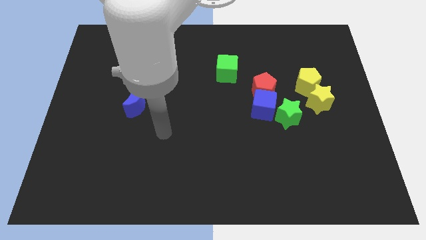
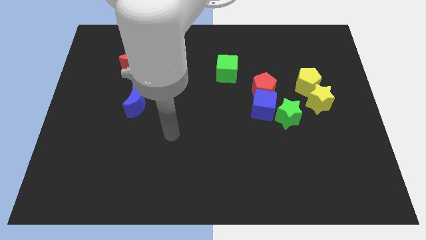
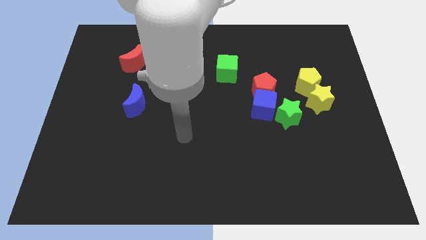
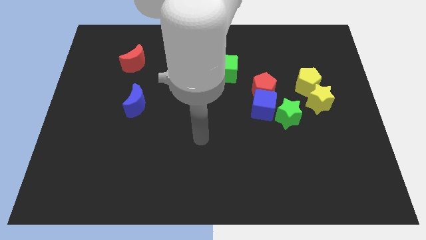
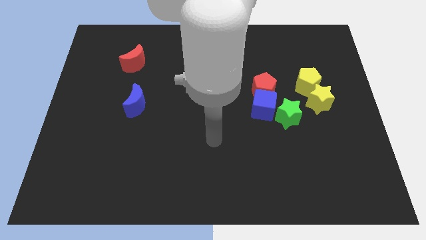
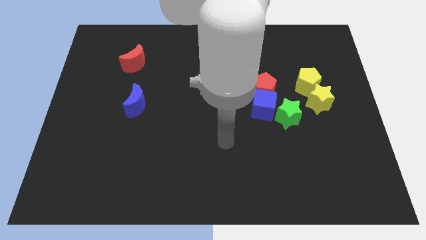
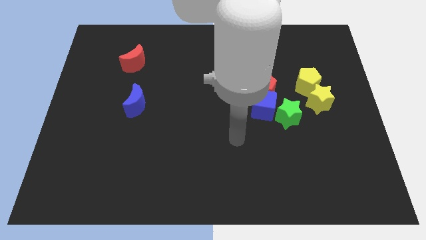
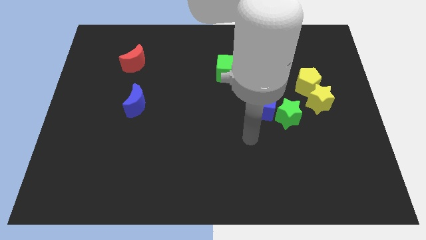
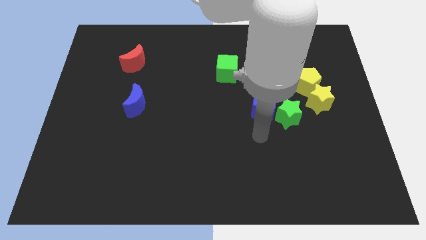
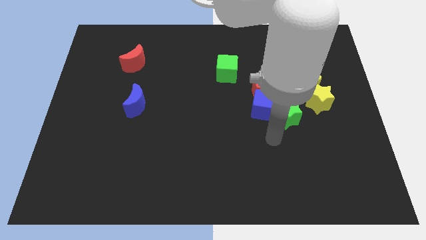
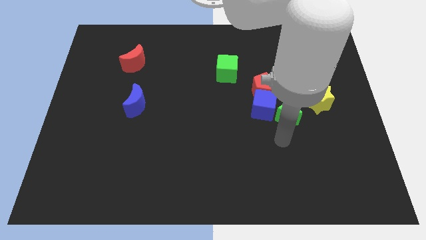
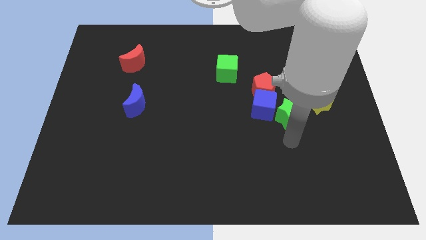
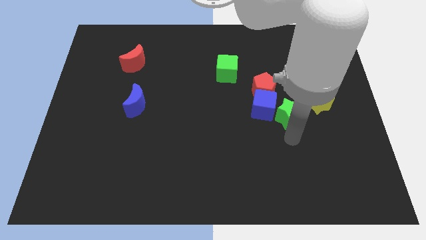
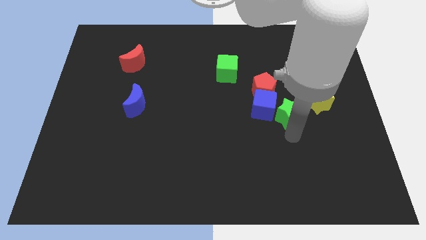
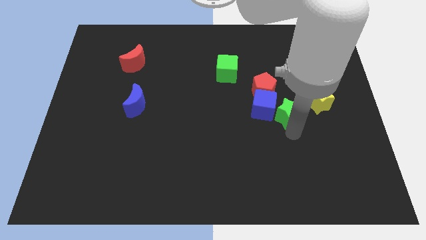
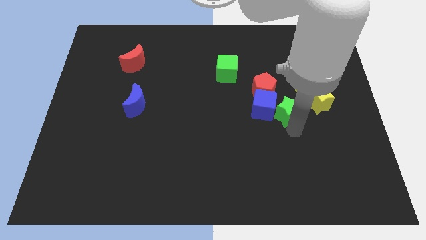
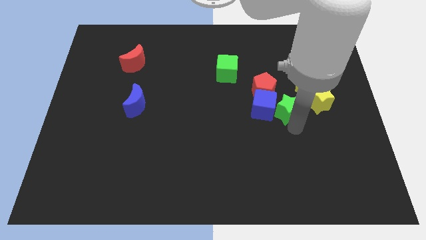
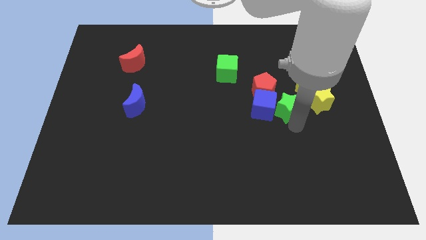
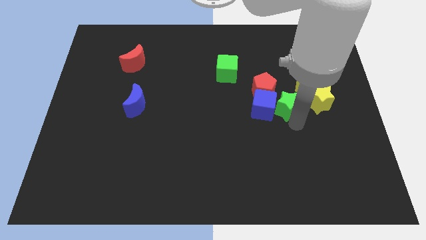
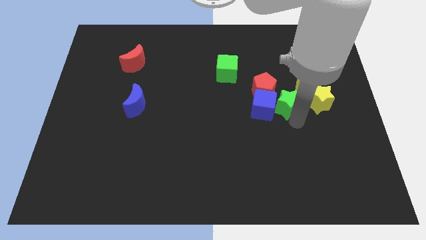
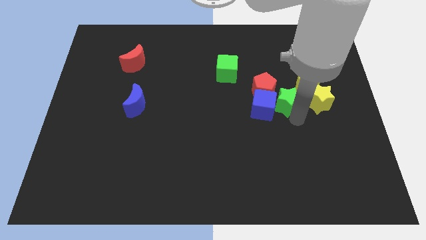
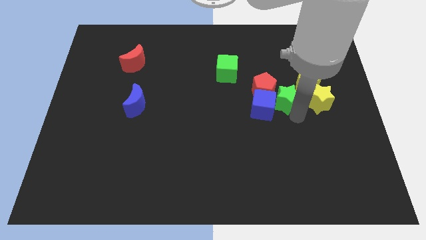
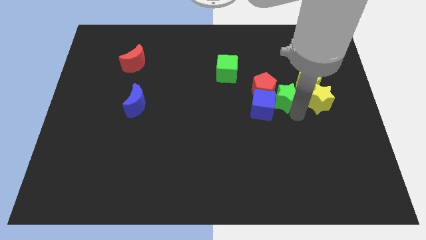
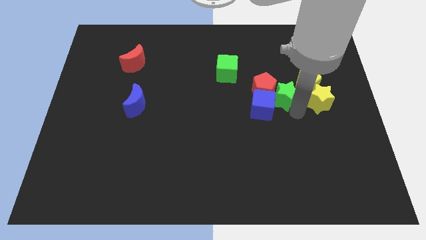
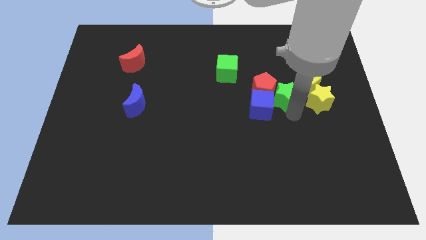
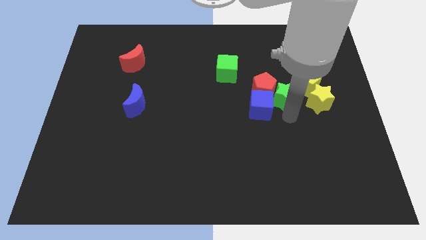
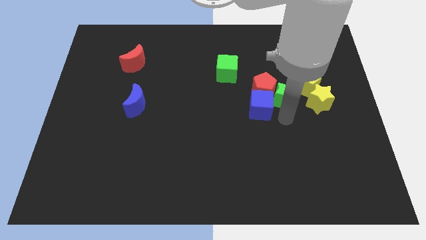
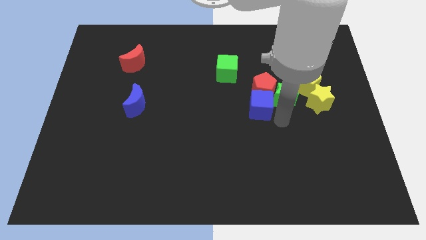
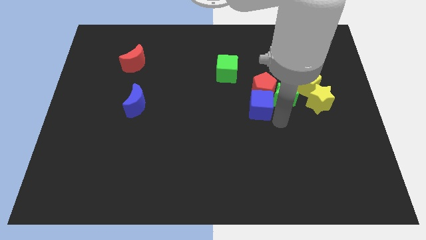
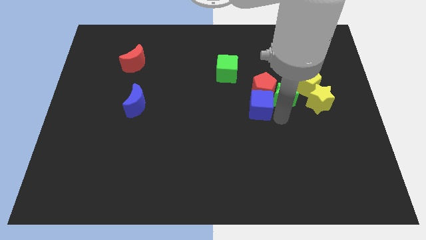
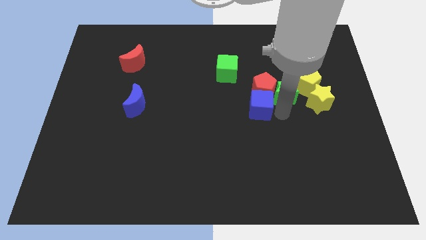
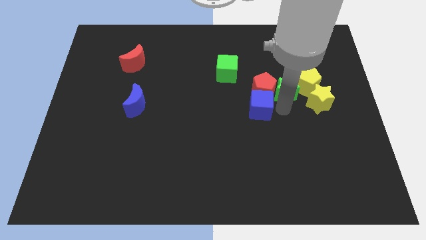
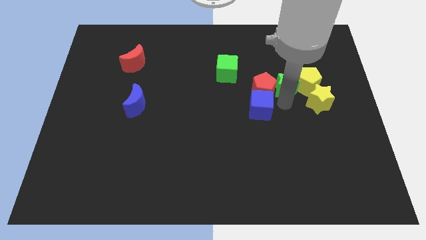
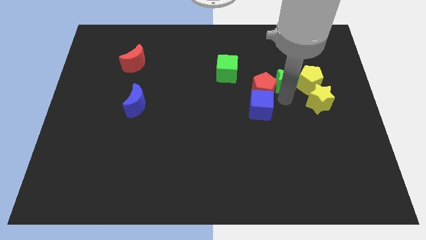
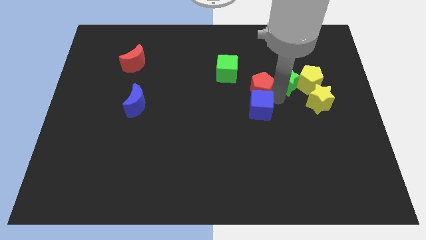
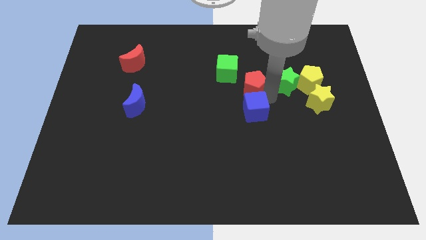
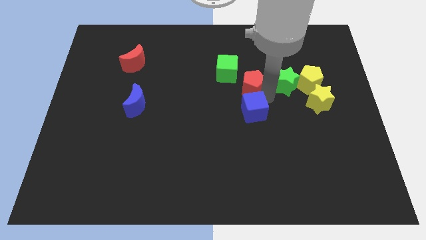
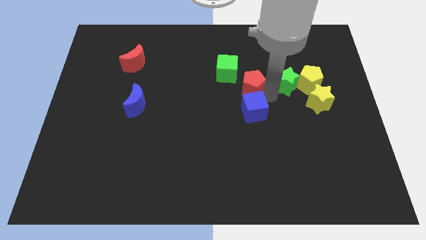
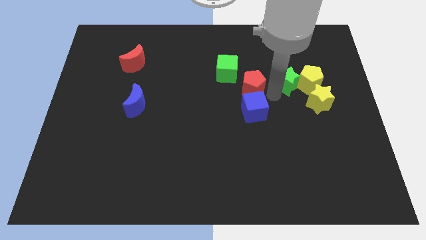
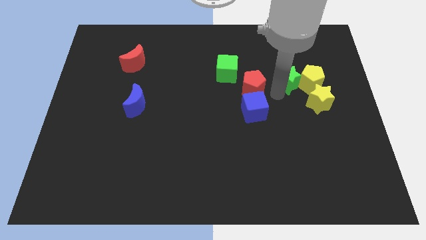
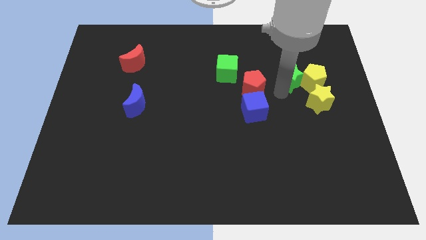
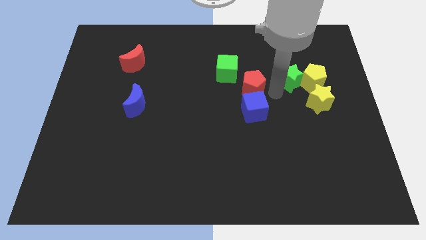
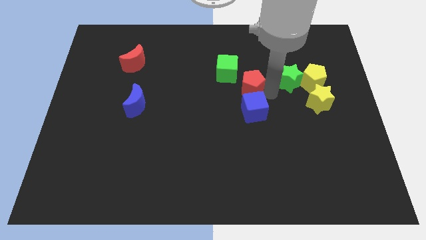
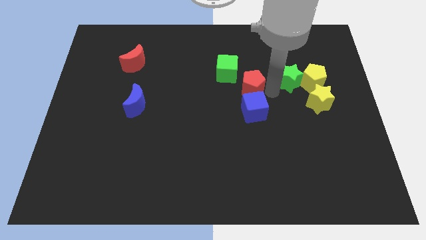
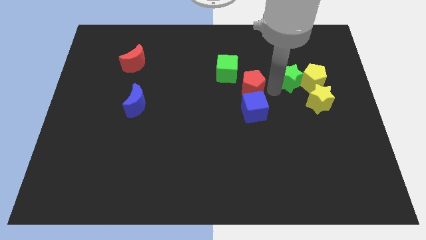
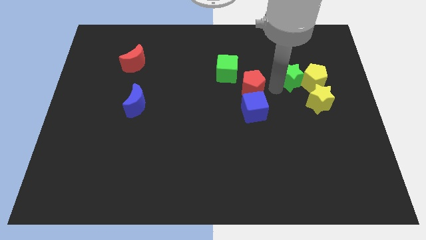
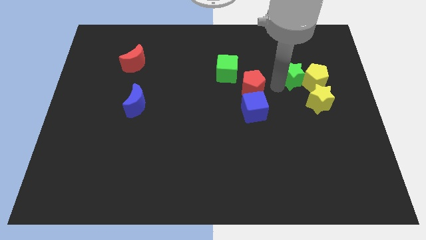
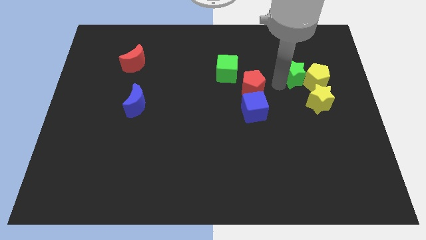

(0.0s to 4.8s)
slide the green star to the top side of the yellow star

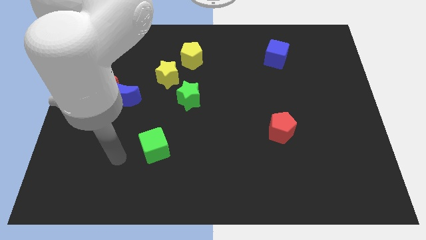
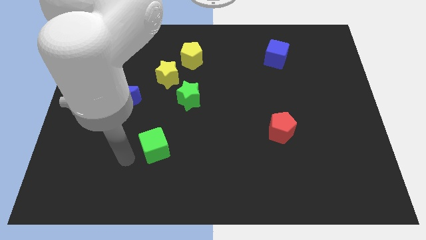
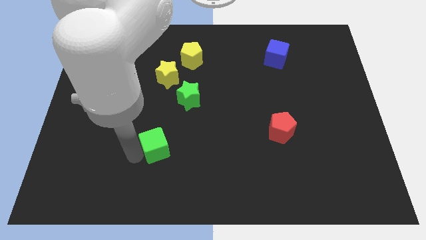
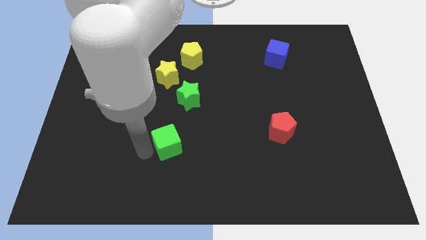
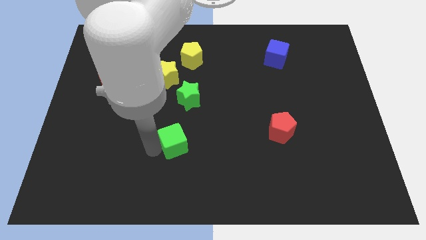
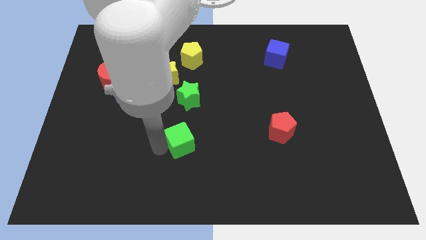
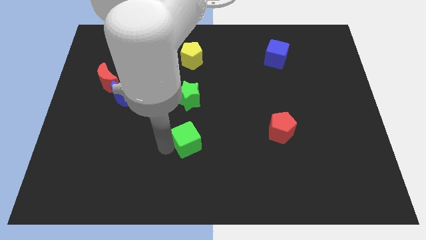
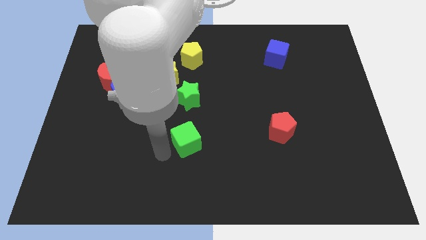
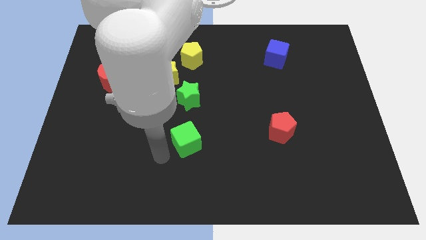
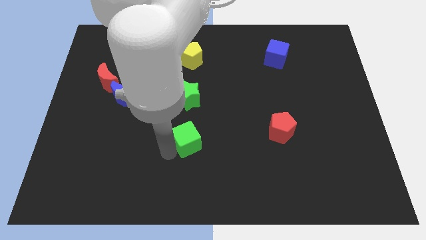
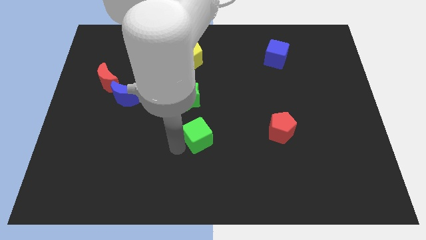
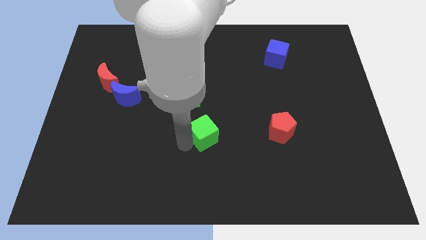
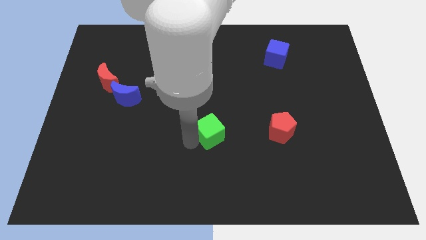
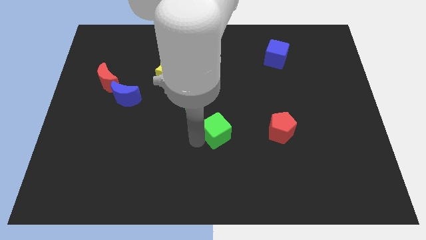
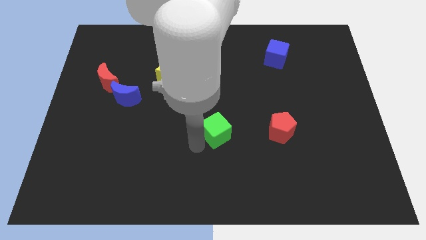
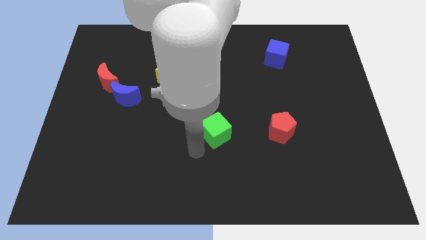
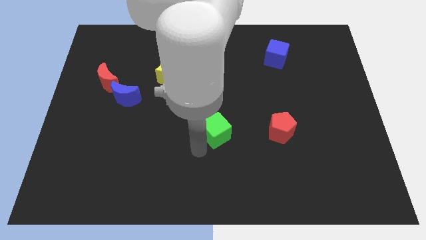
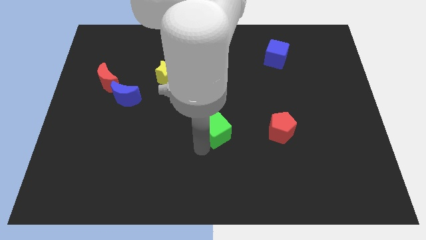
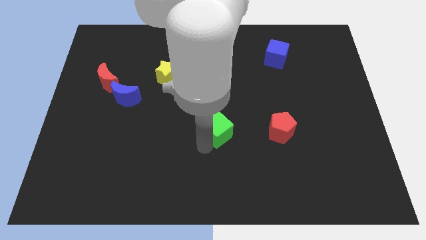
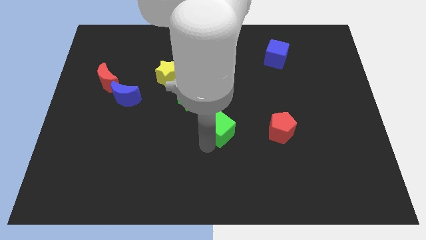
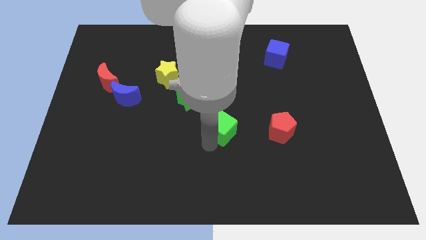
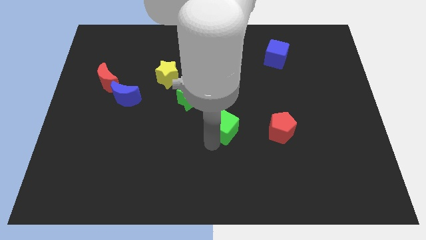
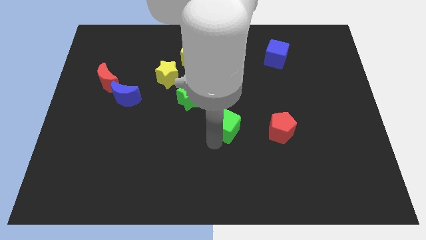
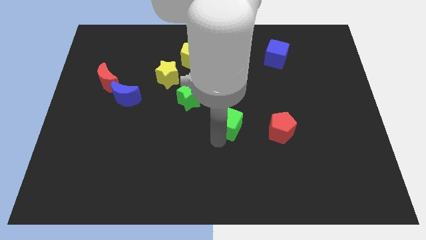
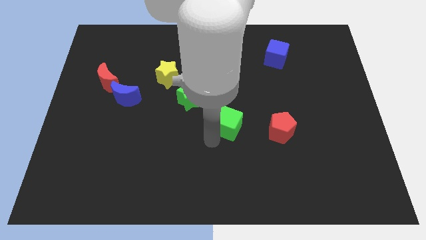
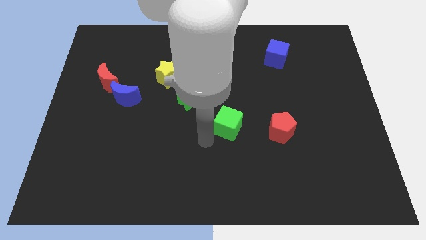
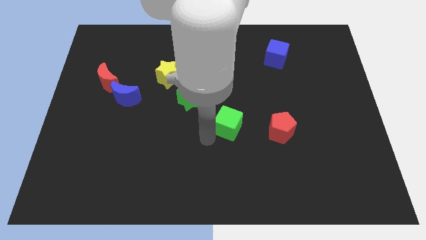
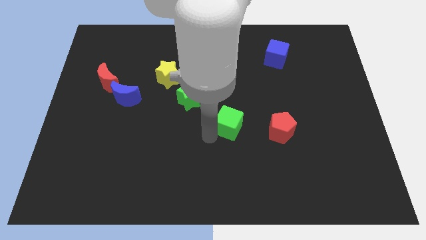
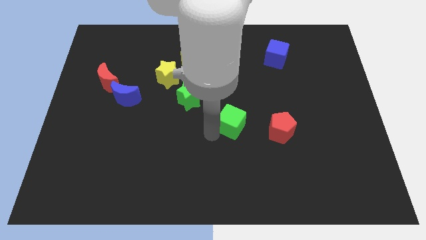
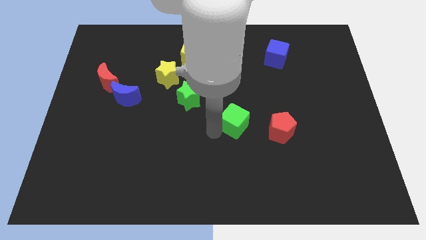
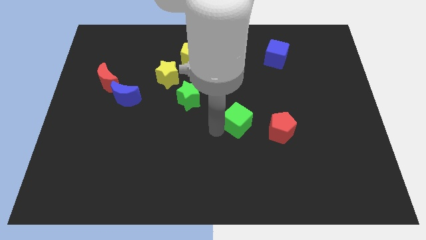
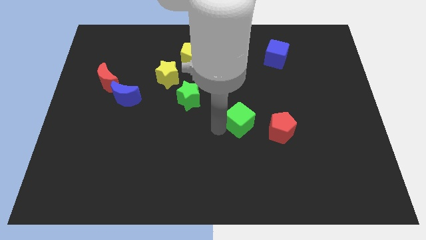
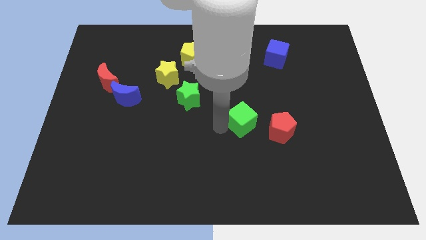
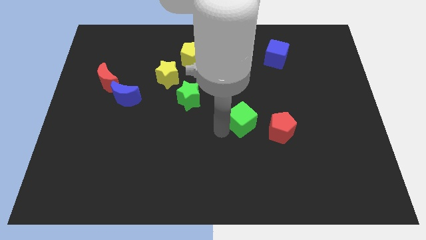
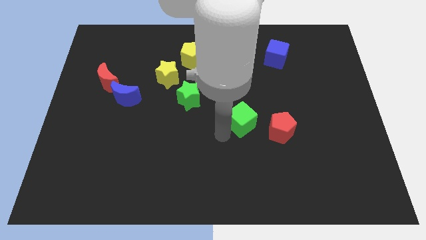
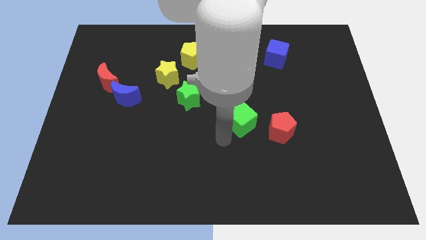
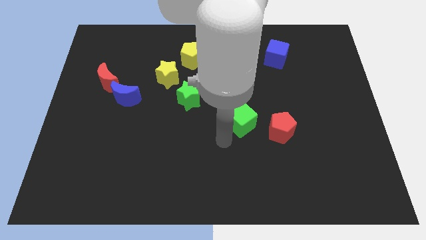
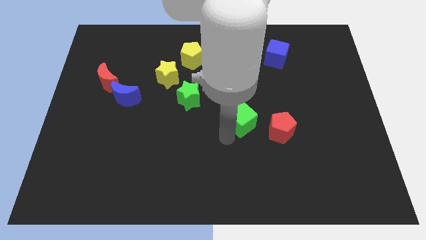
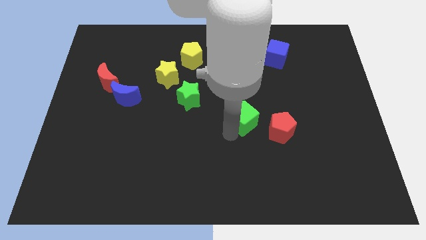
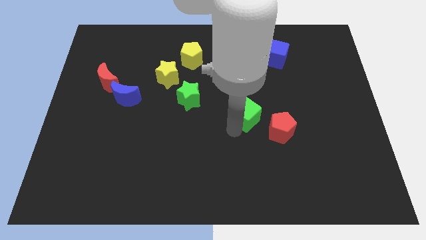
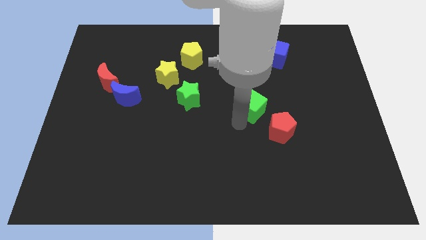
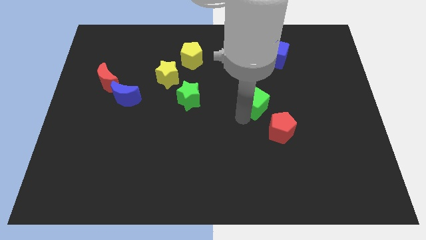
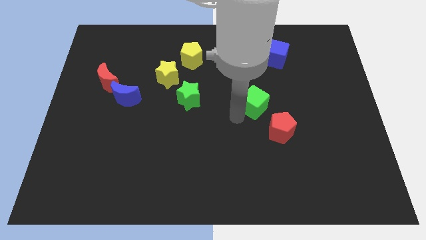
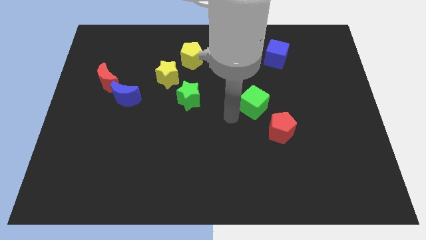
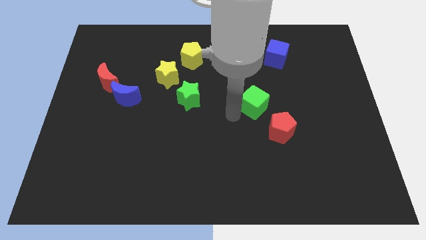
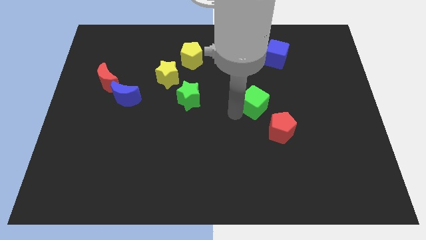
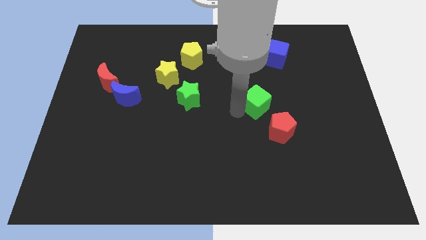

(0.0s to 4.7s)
move the green cube to the top side of the red pentagon
